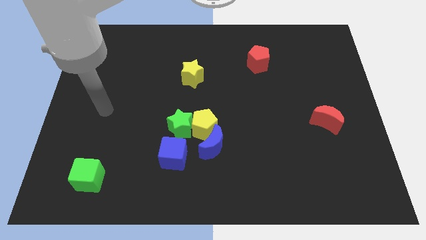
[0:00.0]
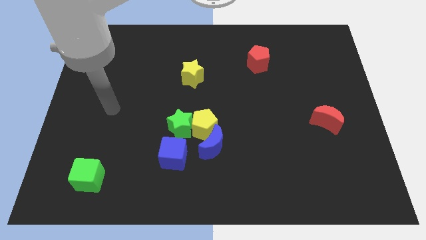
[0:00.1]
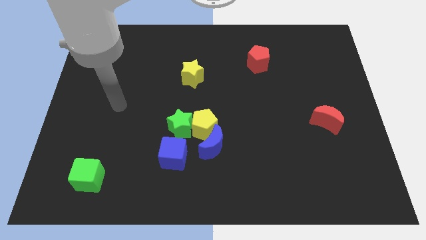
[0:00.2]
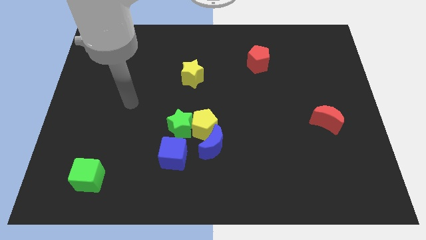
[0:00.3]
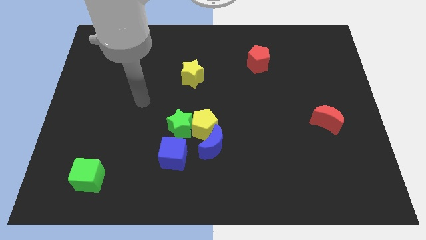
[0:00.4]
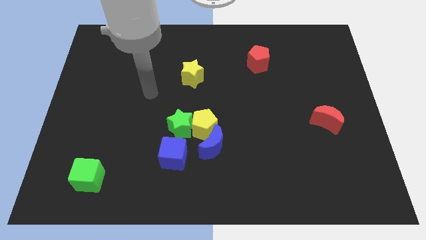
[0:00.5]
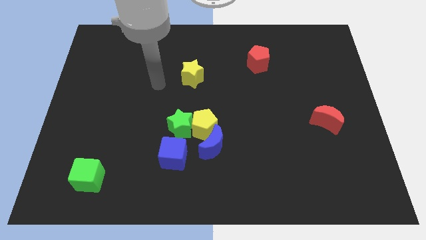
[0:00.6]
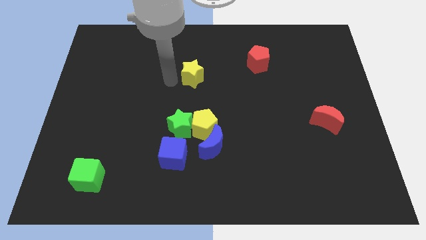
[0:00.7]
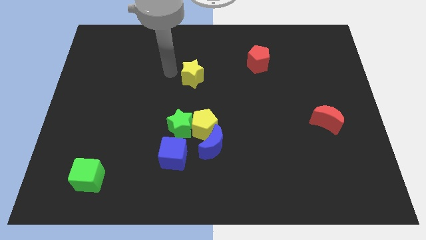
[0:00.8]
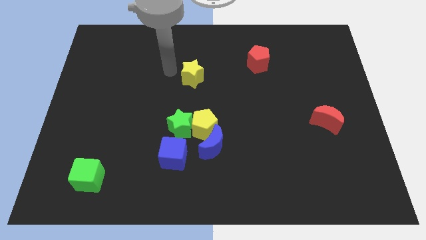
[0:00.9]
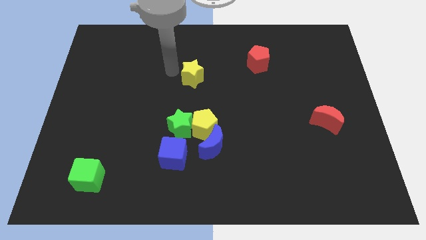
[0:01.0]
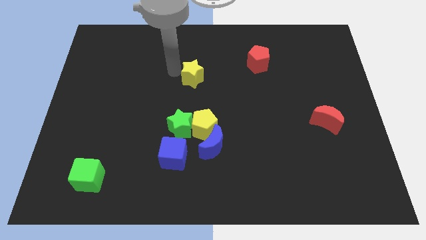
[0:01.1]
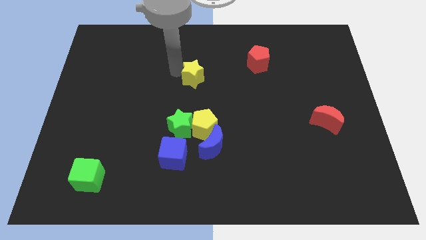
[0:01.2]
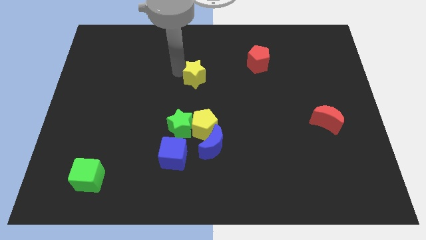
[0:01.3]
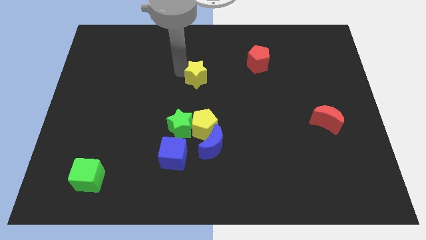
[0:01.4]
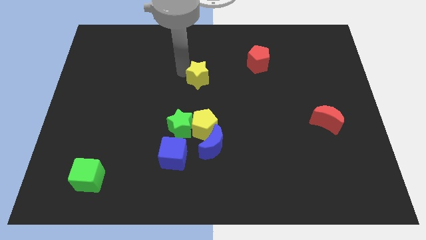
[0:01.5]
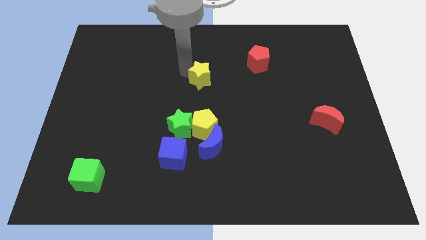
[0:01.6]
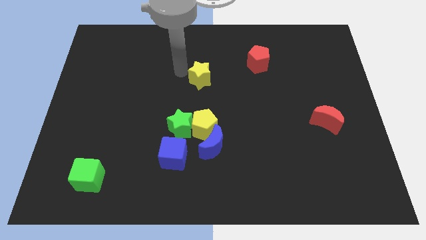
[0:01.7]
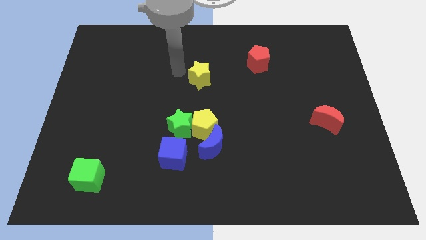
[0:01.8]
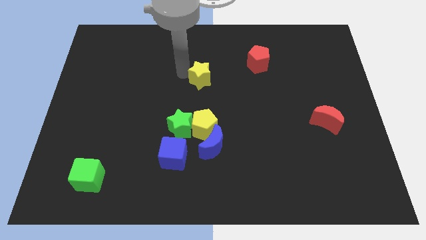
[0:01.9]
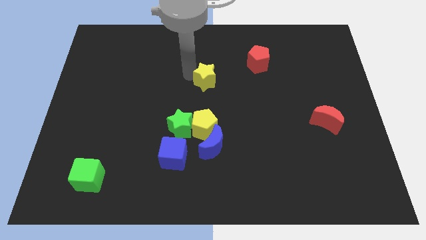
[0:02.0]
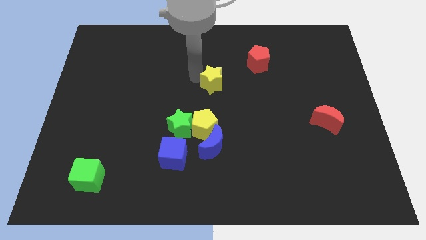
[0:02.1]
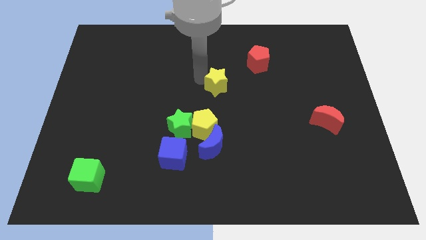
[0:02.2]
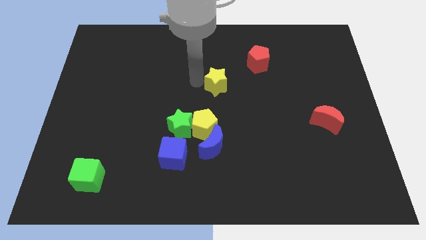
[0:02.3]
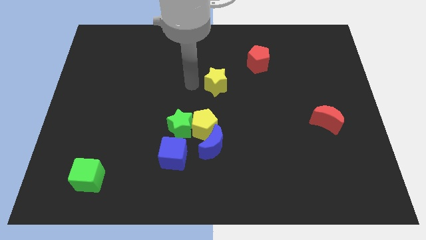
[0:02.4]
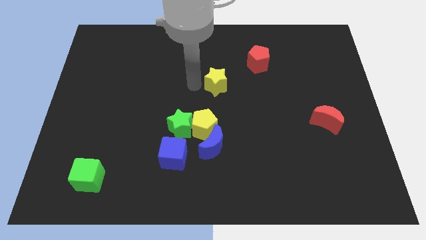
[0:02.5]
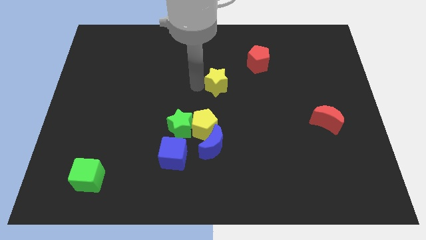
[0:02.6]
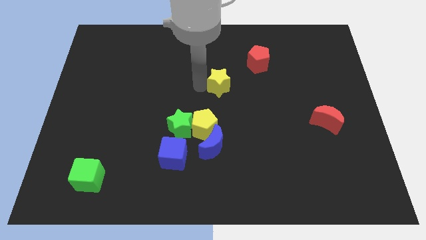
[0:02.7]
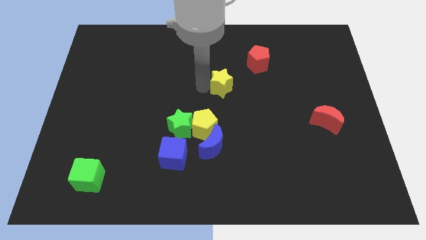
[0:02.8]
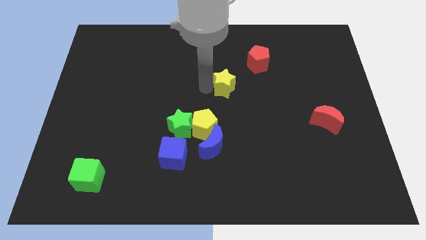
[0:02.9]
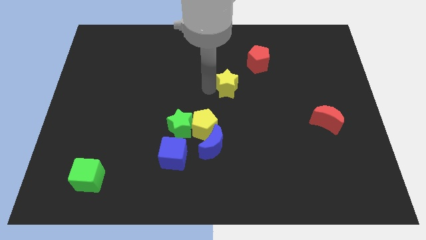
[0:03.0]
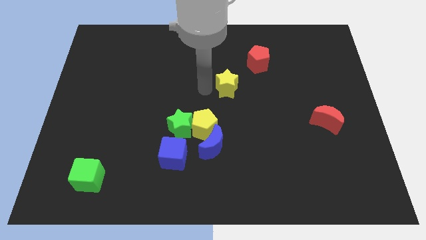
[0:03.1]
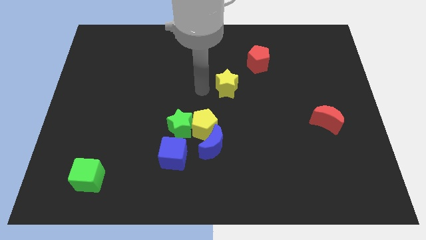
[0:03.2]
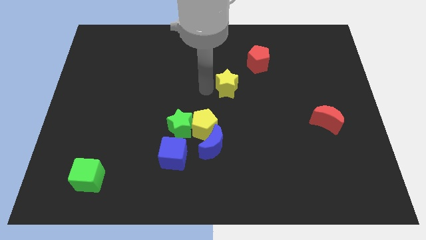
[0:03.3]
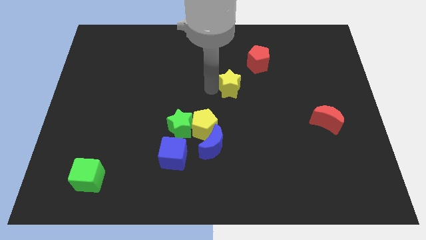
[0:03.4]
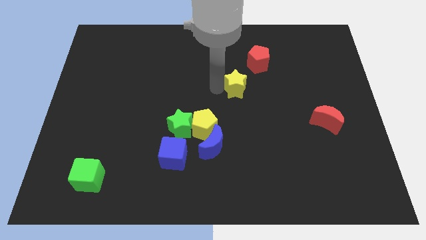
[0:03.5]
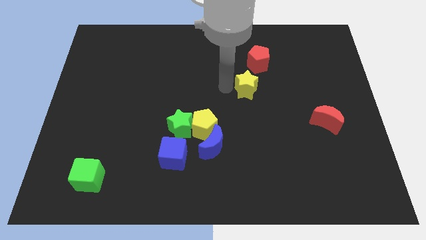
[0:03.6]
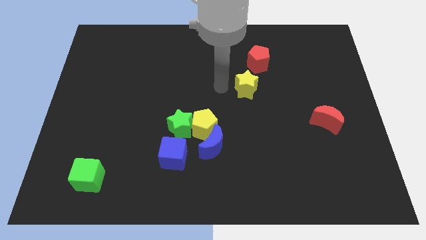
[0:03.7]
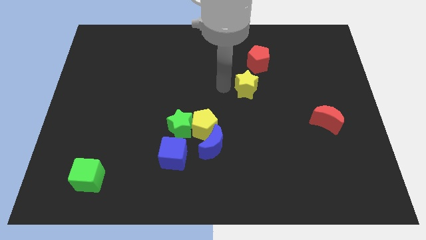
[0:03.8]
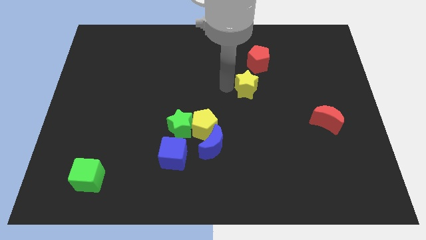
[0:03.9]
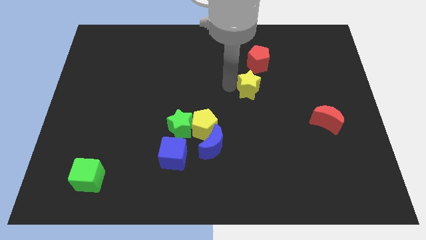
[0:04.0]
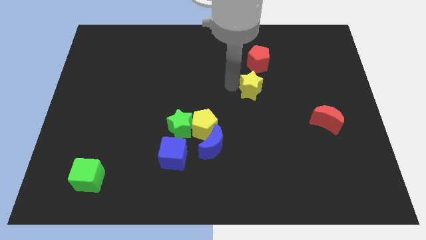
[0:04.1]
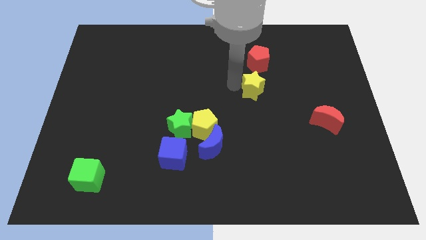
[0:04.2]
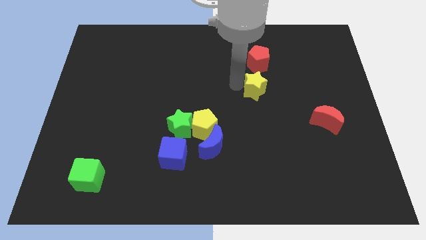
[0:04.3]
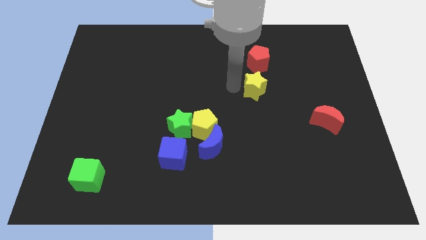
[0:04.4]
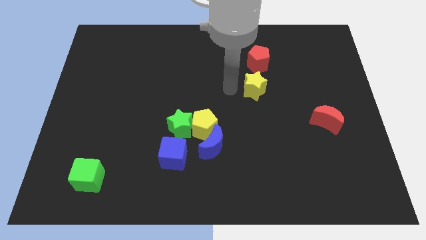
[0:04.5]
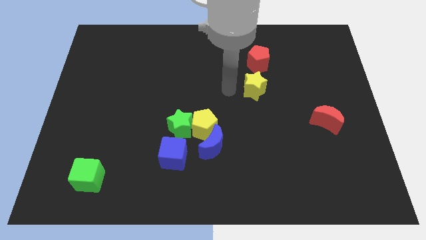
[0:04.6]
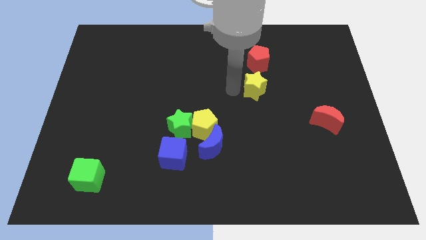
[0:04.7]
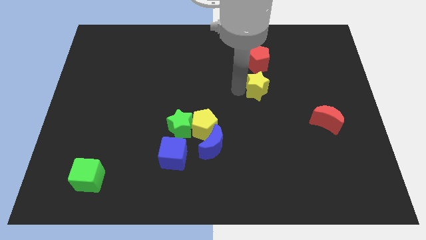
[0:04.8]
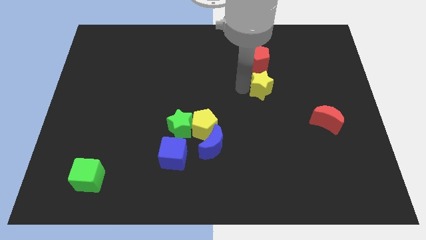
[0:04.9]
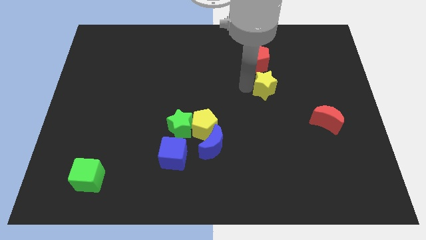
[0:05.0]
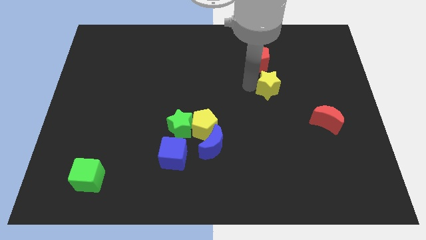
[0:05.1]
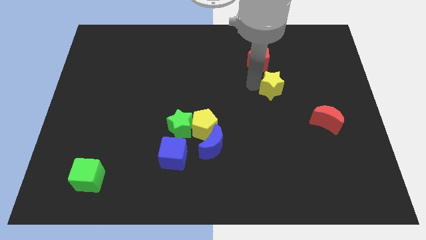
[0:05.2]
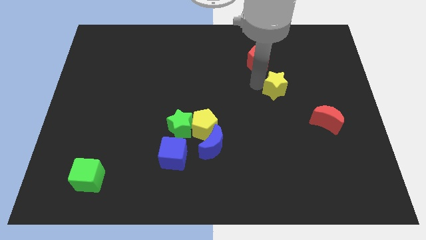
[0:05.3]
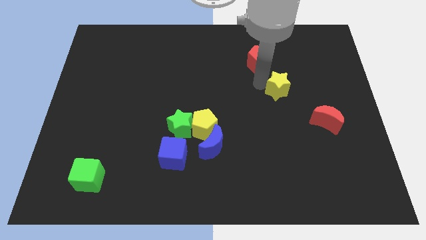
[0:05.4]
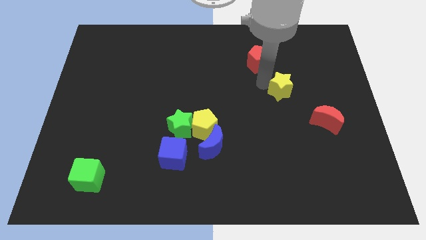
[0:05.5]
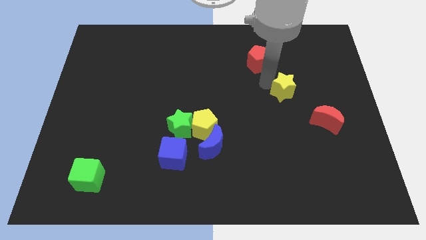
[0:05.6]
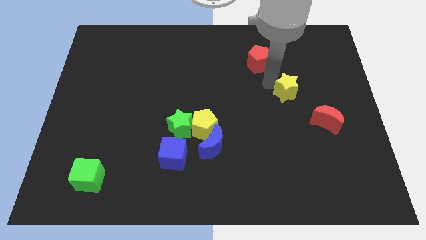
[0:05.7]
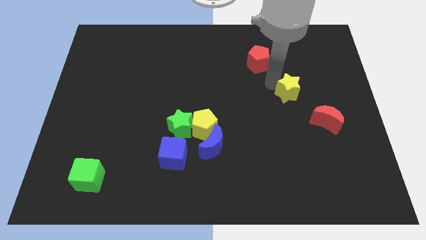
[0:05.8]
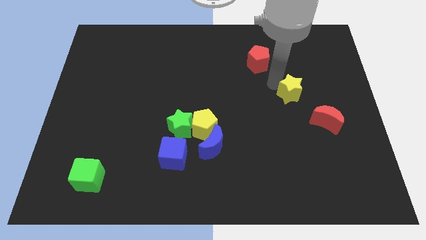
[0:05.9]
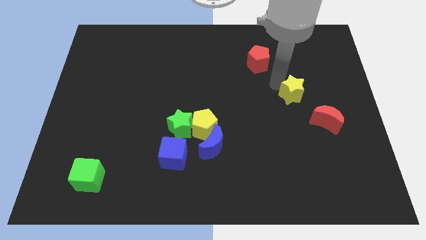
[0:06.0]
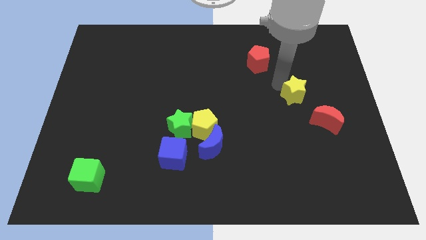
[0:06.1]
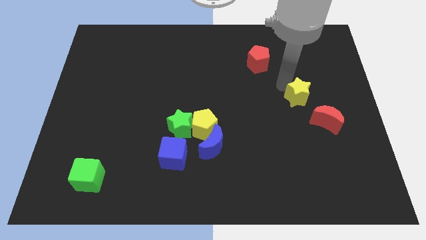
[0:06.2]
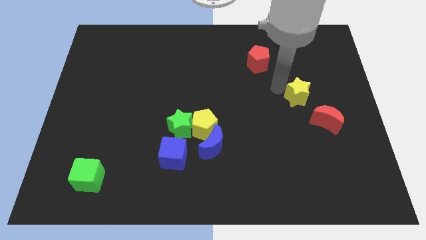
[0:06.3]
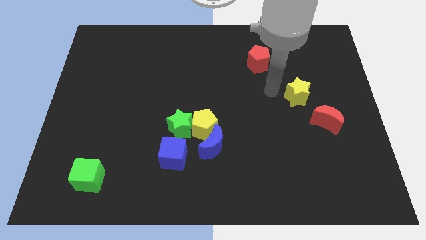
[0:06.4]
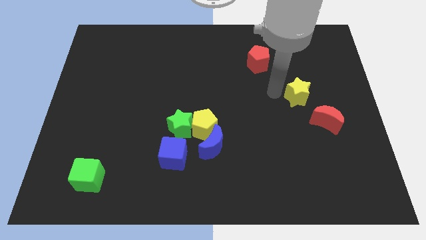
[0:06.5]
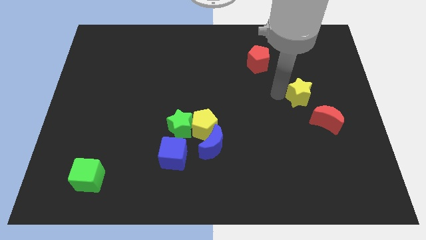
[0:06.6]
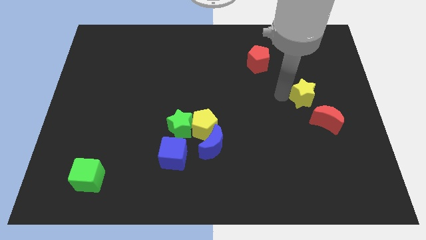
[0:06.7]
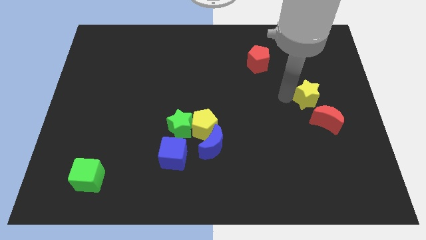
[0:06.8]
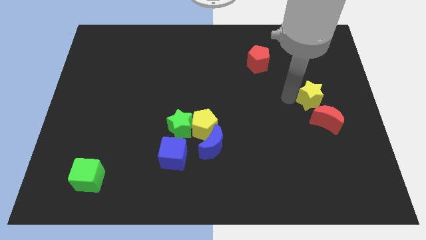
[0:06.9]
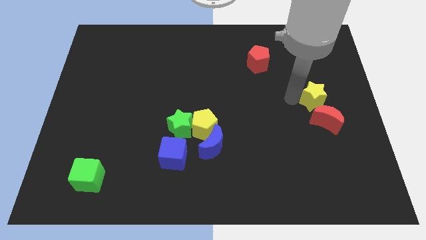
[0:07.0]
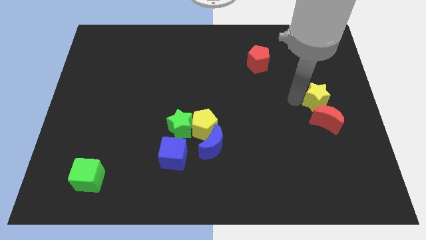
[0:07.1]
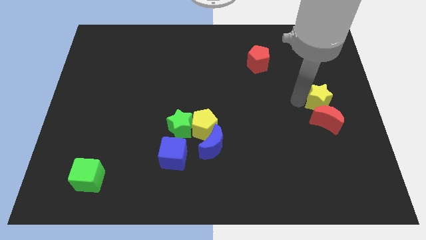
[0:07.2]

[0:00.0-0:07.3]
push the yellow star to the right side of the board
